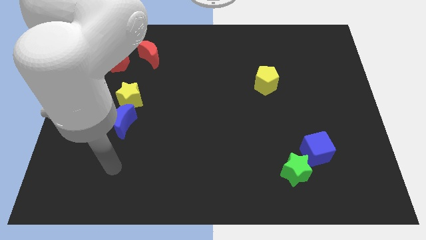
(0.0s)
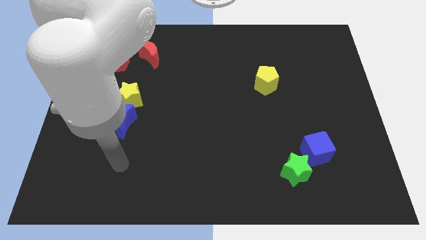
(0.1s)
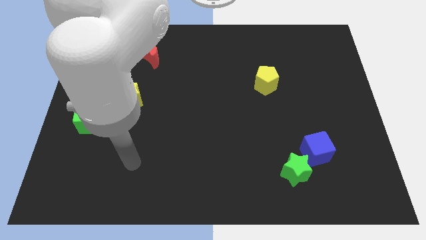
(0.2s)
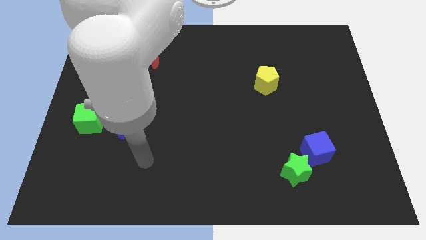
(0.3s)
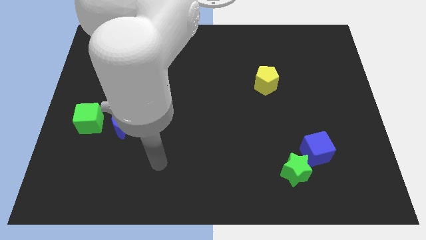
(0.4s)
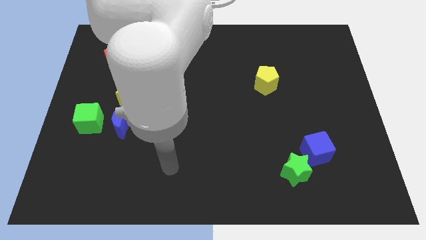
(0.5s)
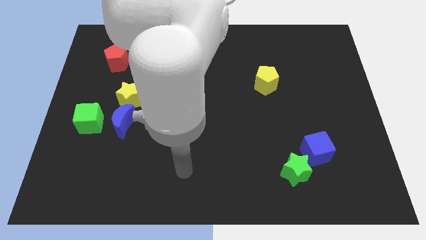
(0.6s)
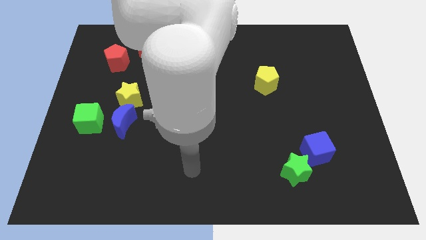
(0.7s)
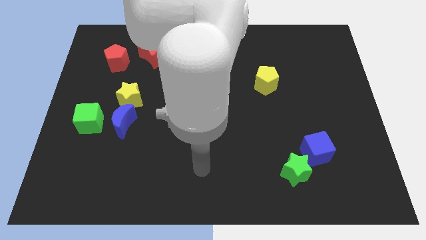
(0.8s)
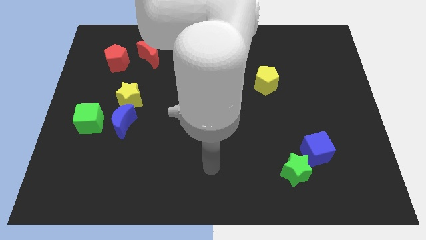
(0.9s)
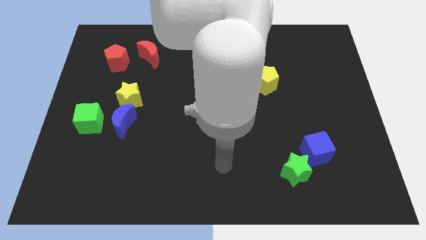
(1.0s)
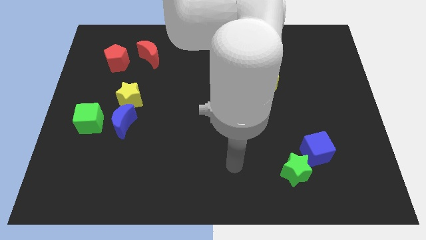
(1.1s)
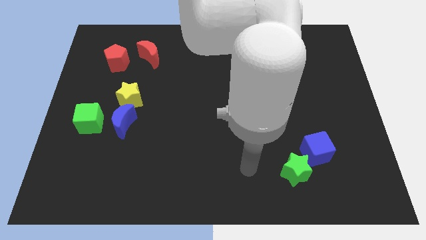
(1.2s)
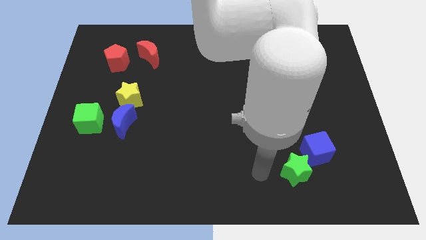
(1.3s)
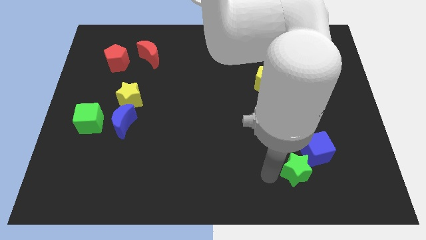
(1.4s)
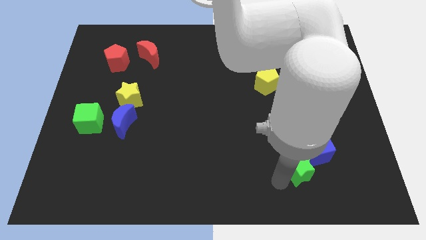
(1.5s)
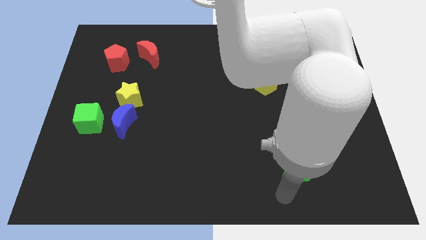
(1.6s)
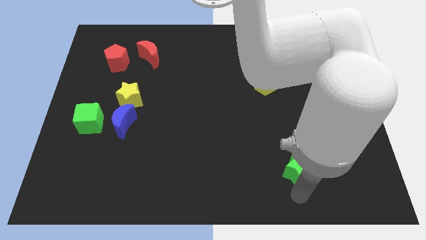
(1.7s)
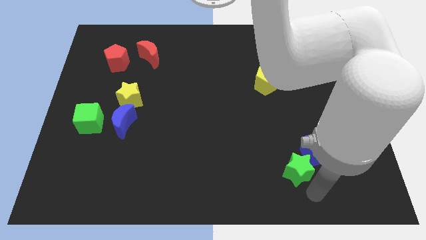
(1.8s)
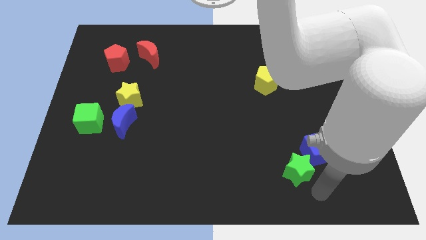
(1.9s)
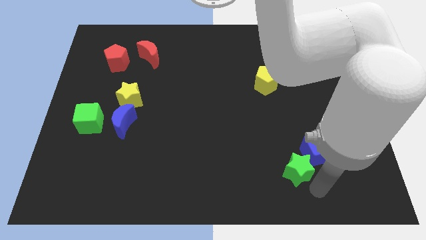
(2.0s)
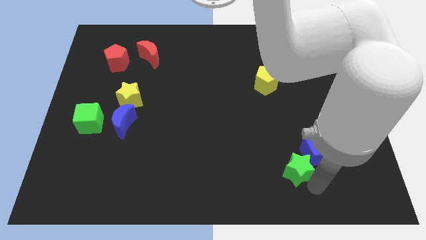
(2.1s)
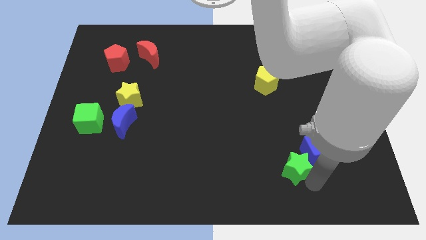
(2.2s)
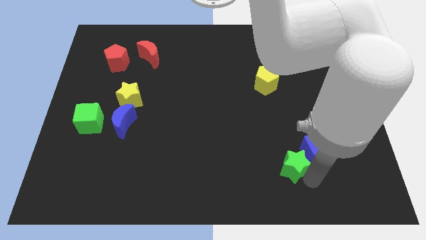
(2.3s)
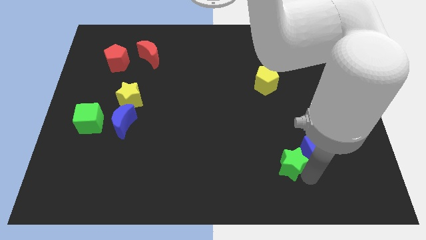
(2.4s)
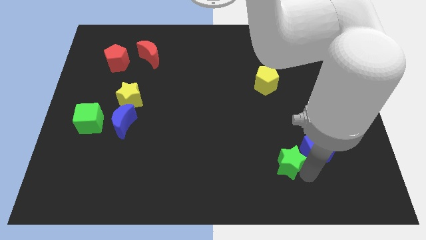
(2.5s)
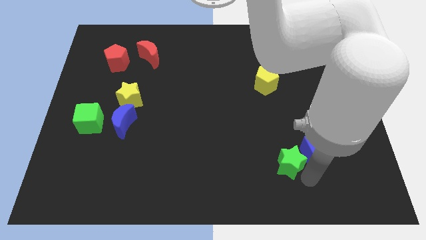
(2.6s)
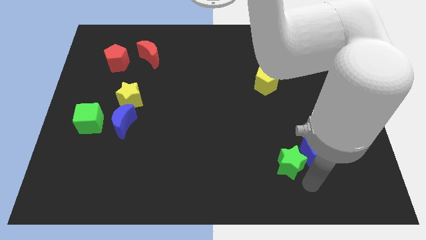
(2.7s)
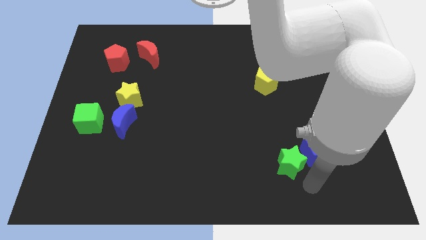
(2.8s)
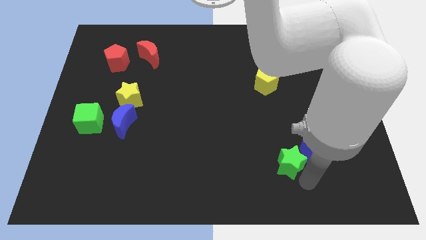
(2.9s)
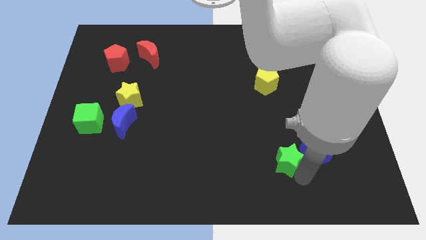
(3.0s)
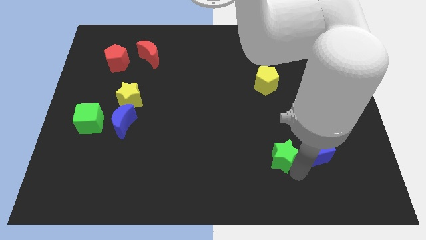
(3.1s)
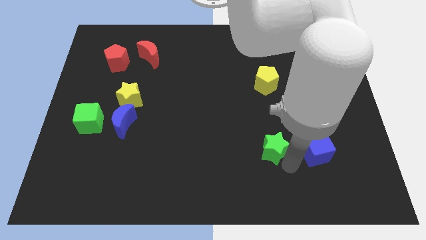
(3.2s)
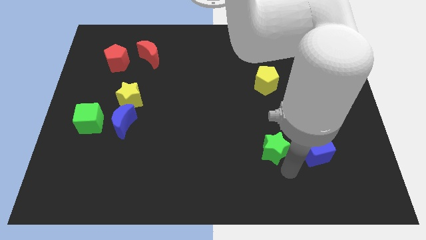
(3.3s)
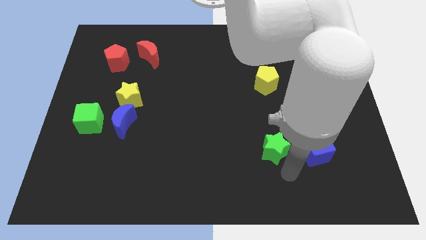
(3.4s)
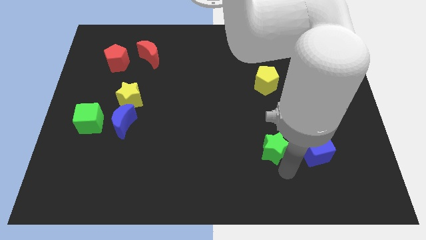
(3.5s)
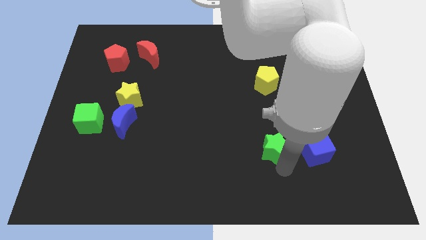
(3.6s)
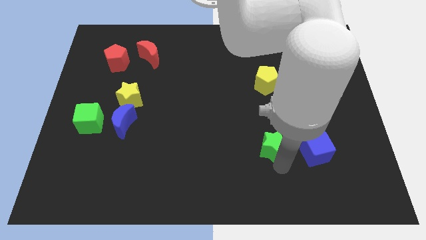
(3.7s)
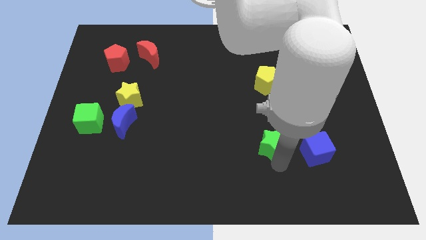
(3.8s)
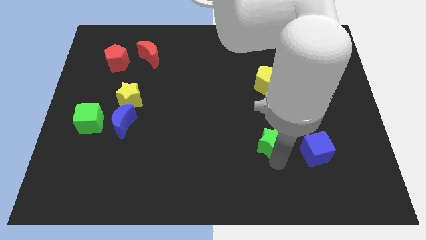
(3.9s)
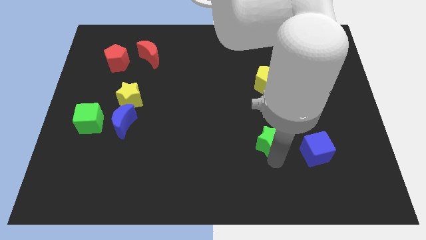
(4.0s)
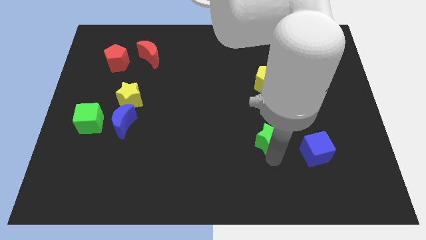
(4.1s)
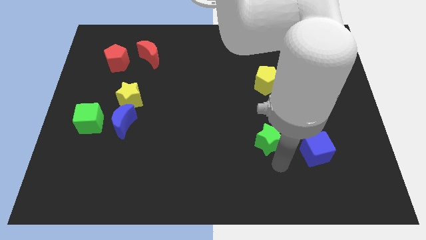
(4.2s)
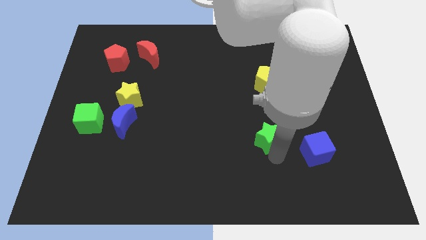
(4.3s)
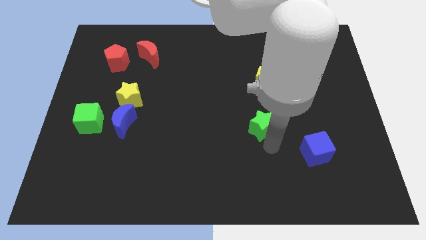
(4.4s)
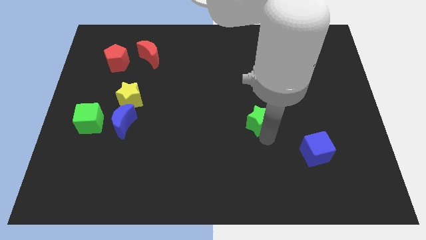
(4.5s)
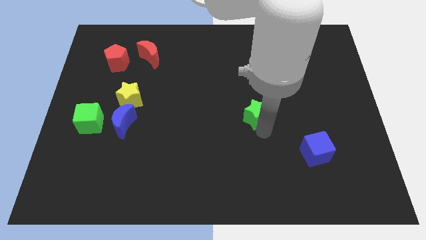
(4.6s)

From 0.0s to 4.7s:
move the green star to the bottom left side of the yellow pentagon

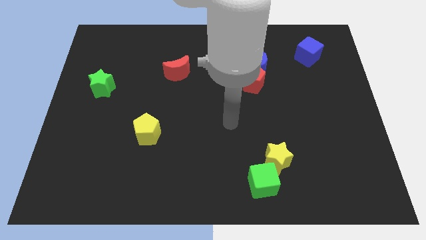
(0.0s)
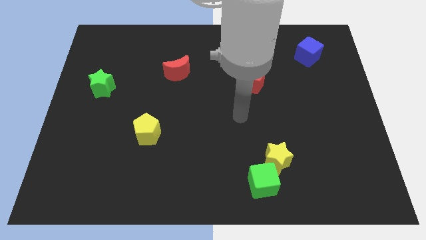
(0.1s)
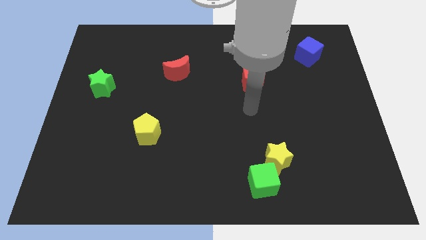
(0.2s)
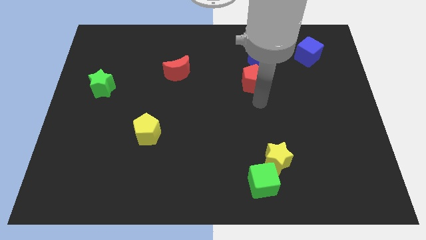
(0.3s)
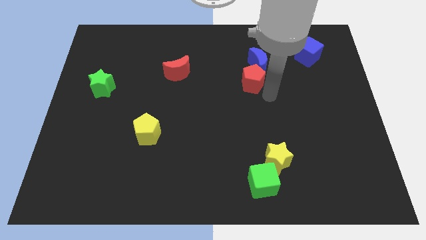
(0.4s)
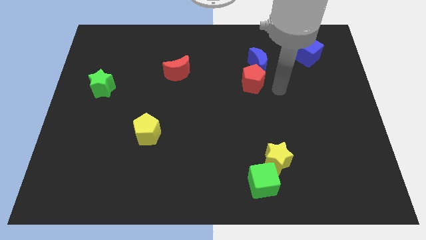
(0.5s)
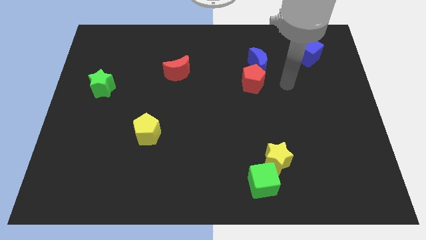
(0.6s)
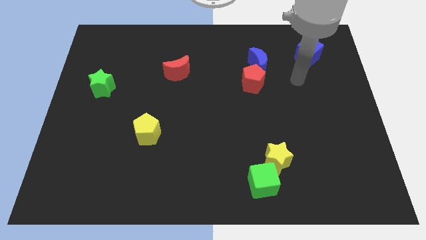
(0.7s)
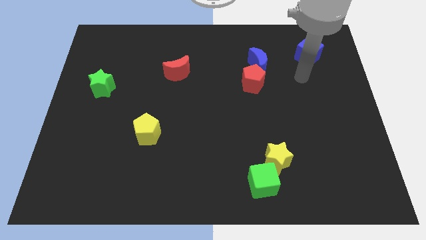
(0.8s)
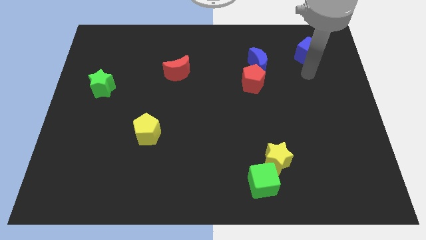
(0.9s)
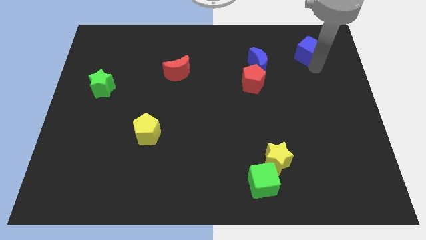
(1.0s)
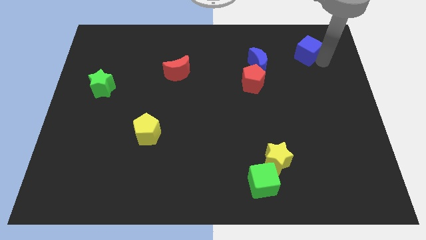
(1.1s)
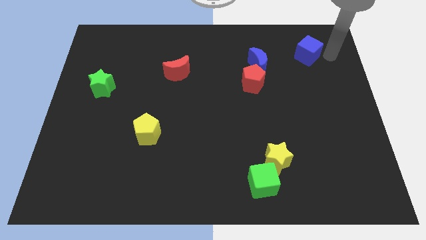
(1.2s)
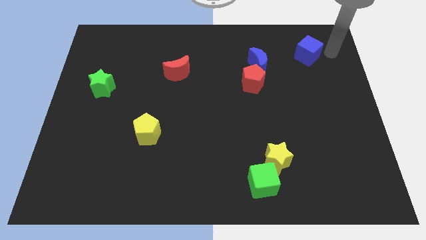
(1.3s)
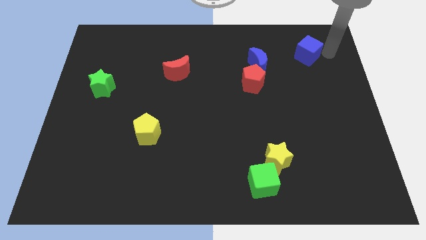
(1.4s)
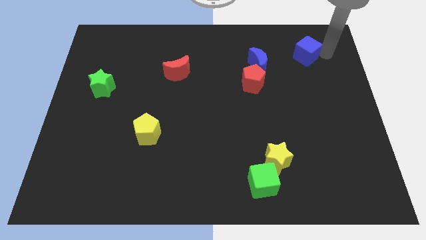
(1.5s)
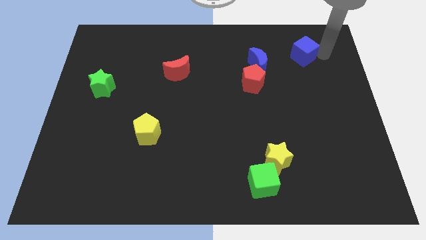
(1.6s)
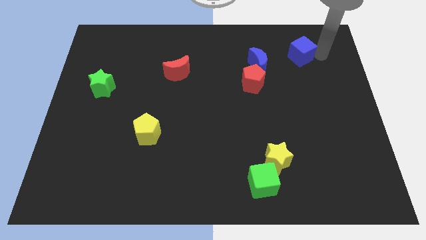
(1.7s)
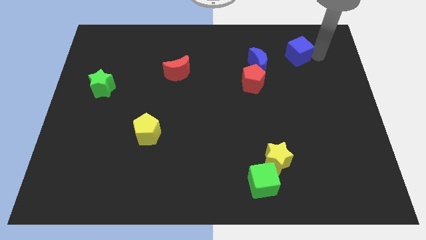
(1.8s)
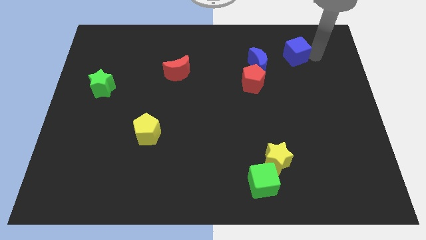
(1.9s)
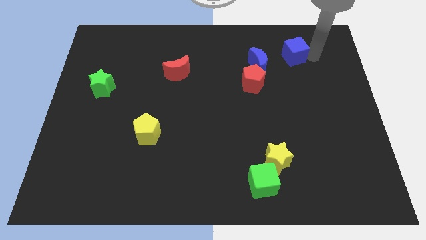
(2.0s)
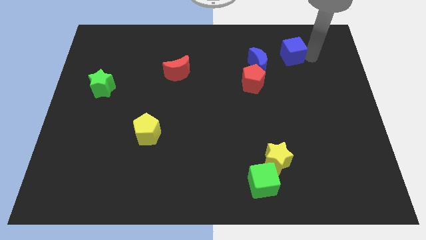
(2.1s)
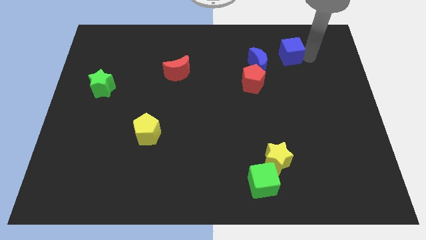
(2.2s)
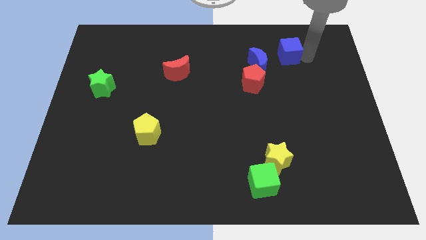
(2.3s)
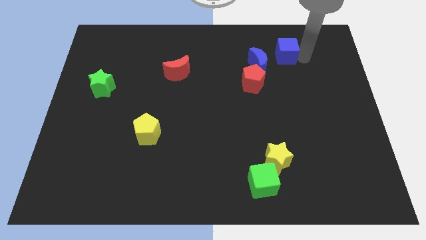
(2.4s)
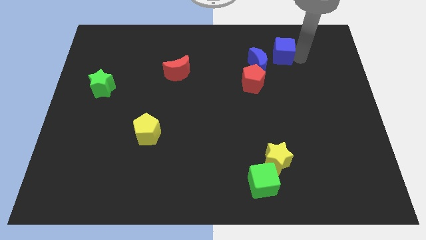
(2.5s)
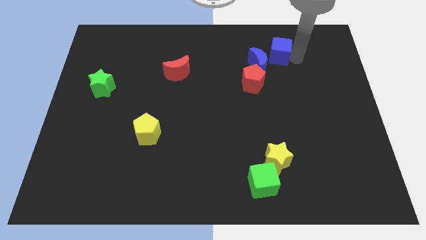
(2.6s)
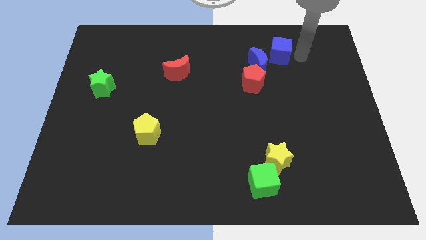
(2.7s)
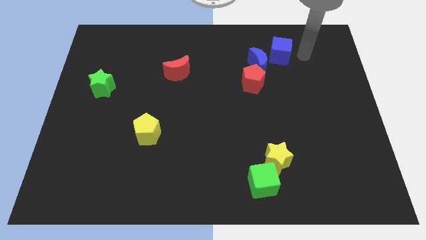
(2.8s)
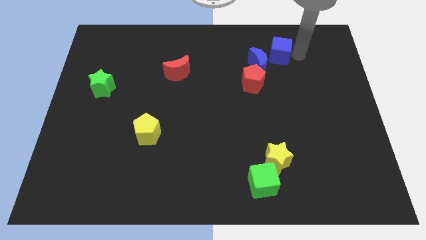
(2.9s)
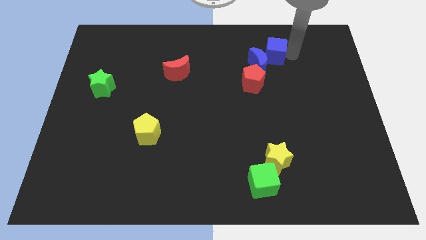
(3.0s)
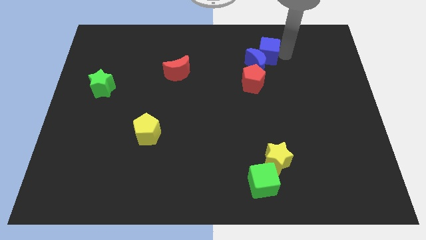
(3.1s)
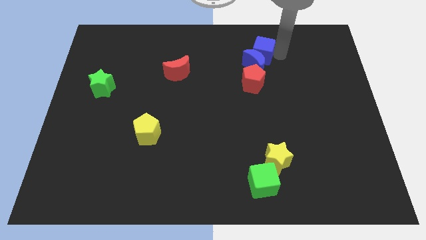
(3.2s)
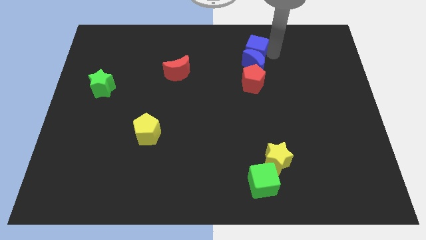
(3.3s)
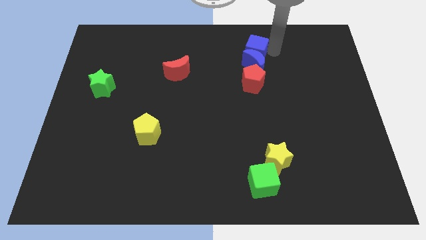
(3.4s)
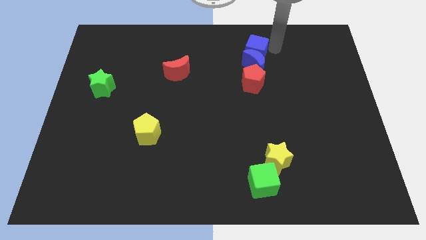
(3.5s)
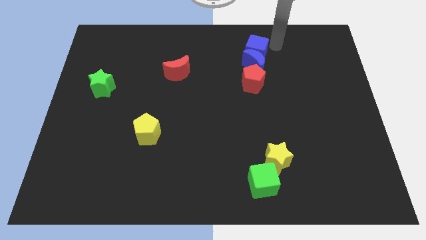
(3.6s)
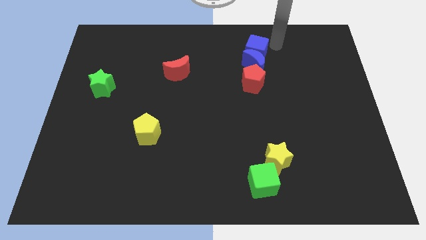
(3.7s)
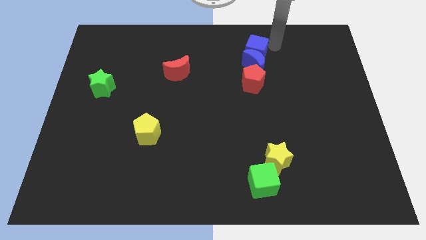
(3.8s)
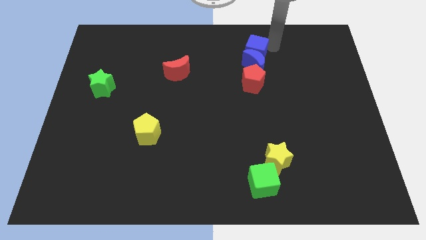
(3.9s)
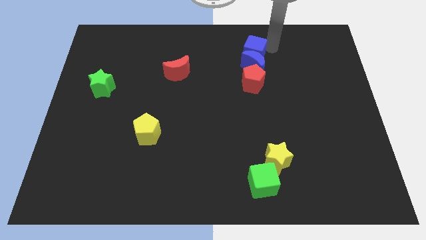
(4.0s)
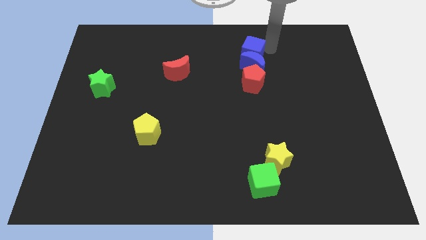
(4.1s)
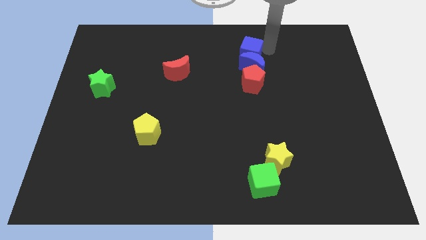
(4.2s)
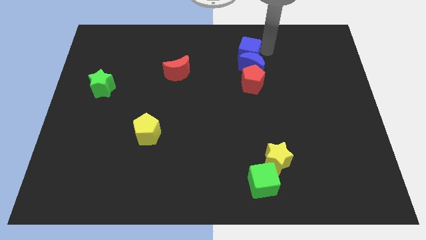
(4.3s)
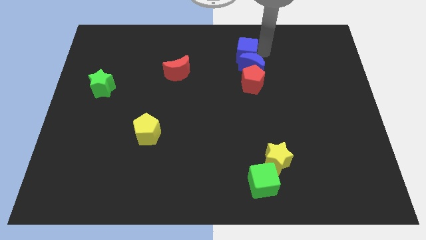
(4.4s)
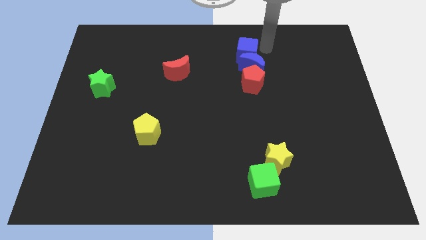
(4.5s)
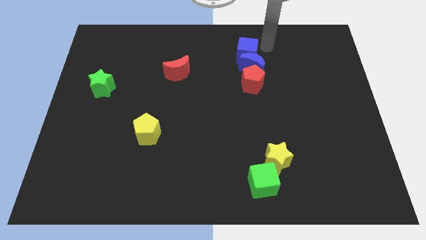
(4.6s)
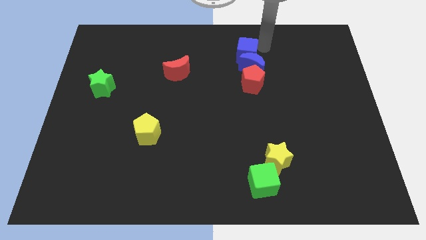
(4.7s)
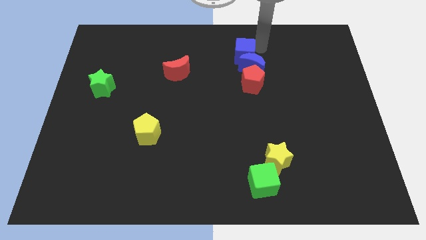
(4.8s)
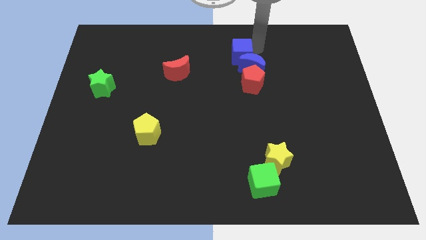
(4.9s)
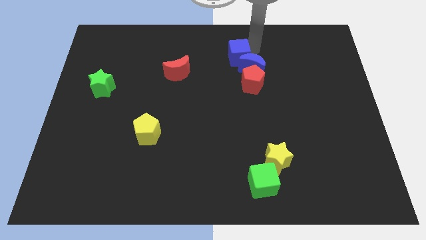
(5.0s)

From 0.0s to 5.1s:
push the blue cube left of the blue moon
